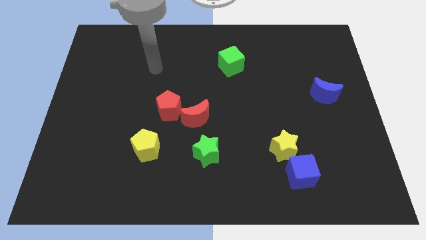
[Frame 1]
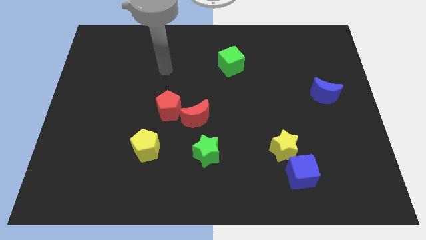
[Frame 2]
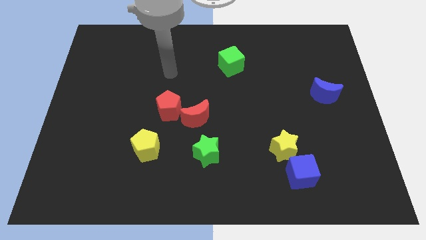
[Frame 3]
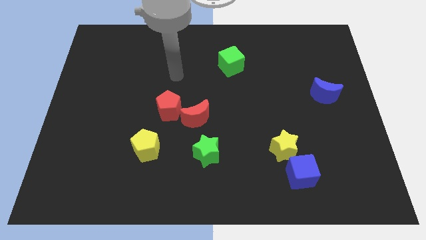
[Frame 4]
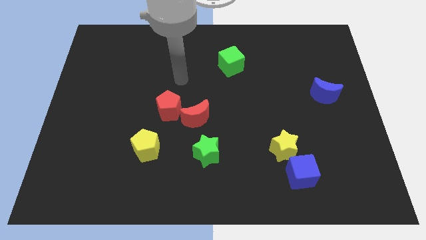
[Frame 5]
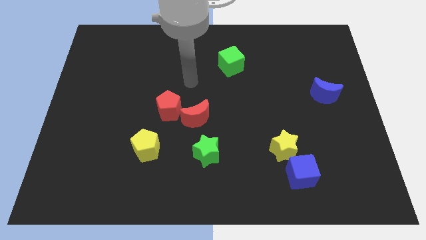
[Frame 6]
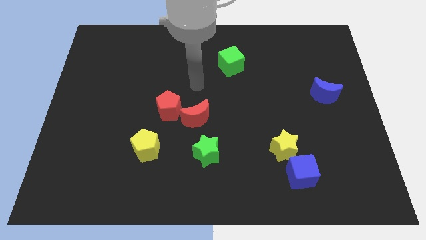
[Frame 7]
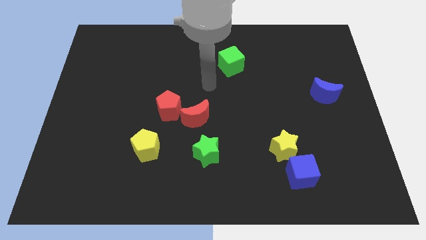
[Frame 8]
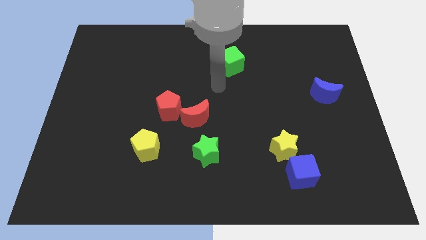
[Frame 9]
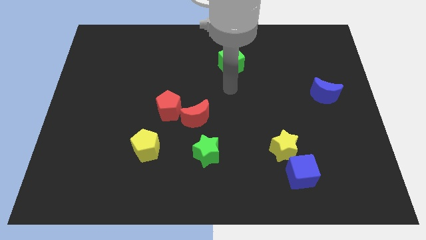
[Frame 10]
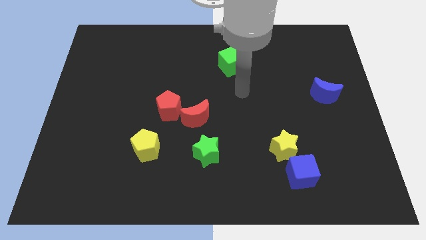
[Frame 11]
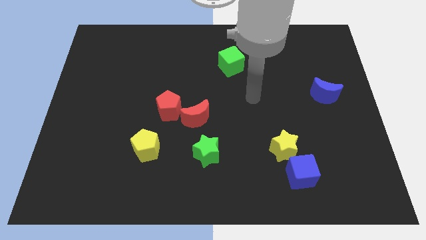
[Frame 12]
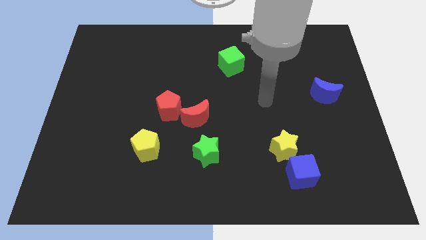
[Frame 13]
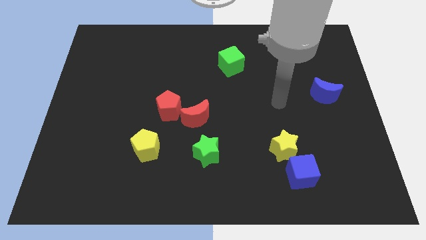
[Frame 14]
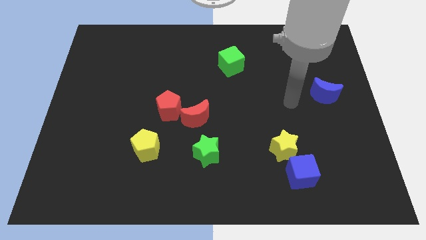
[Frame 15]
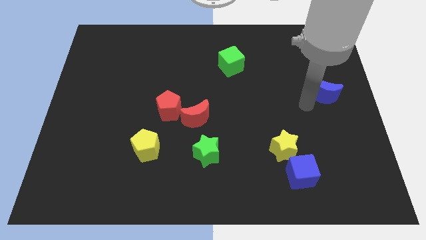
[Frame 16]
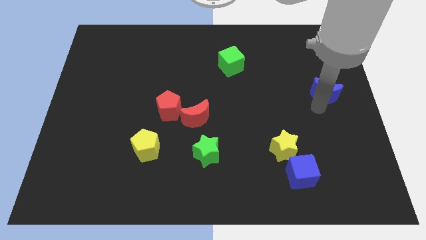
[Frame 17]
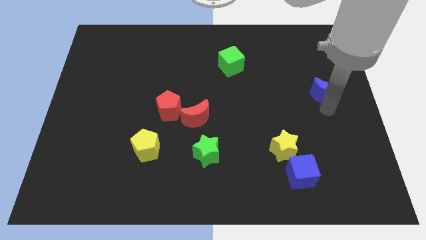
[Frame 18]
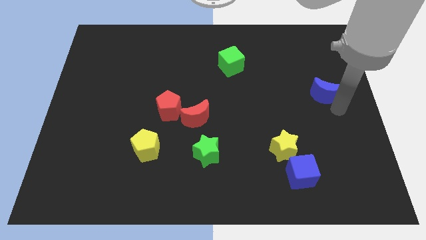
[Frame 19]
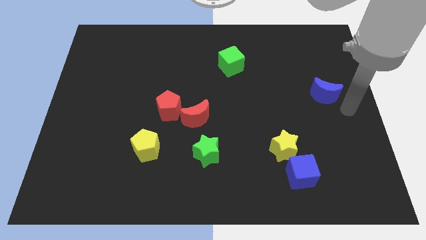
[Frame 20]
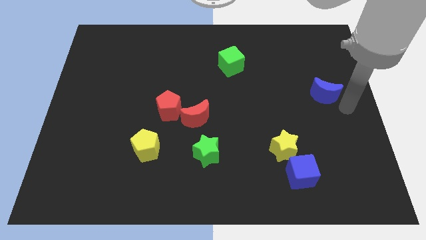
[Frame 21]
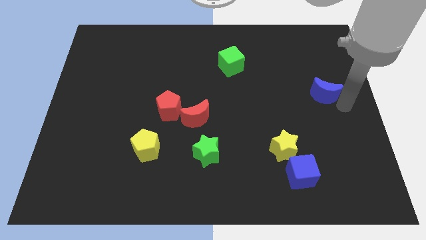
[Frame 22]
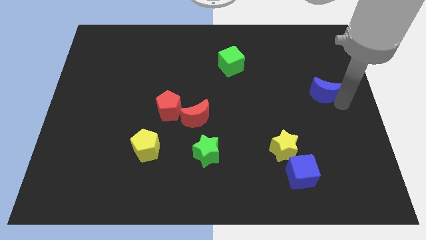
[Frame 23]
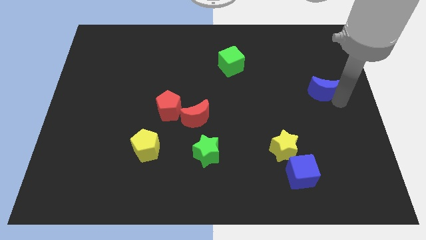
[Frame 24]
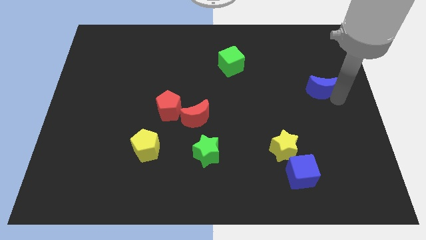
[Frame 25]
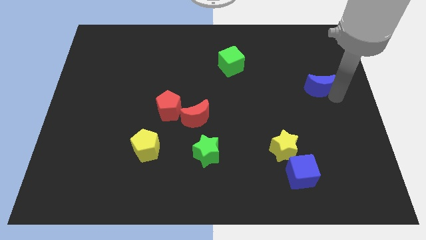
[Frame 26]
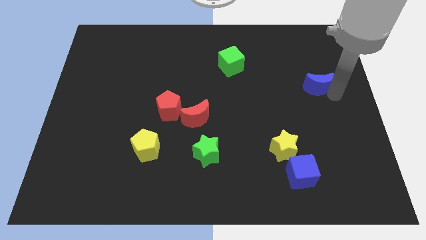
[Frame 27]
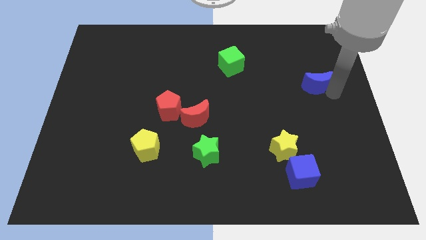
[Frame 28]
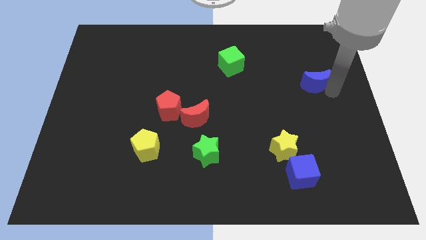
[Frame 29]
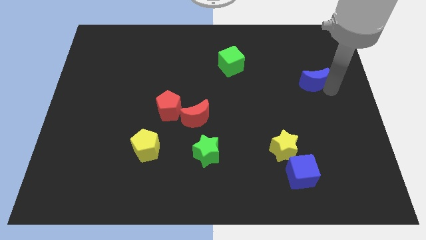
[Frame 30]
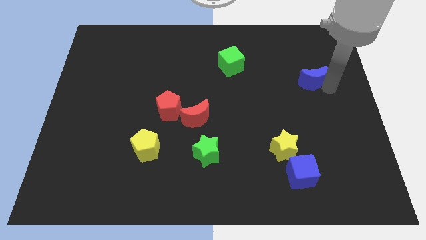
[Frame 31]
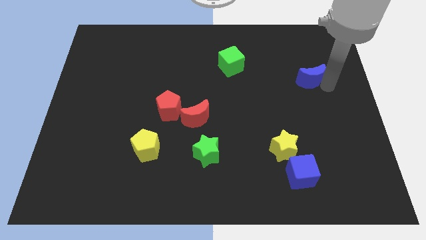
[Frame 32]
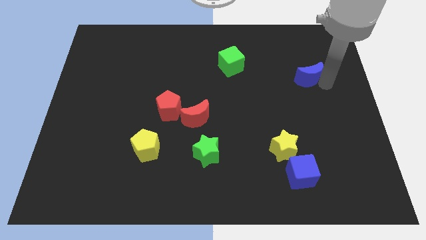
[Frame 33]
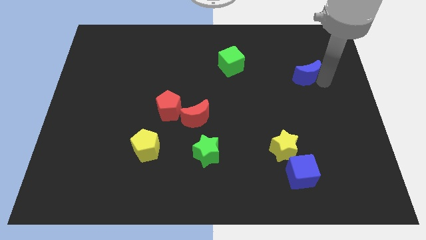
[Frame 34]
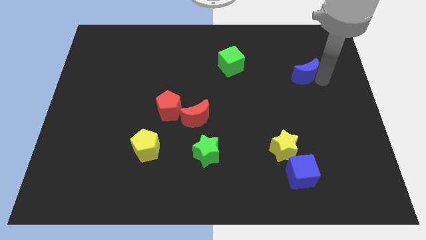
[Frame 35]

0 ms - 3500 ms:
move the blue moon upwards and then to the left slightly

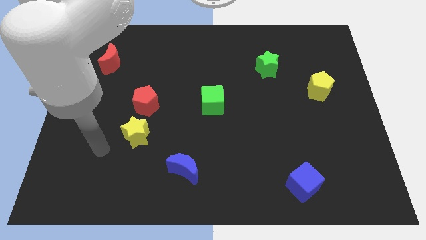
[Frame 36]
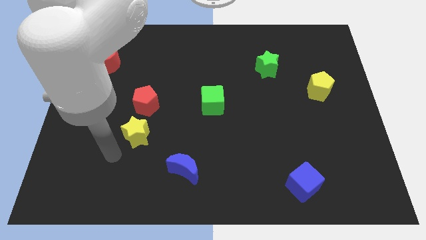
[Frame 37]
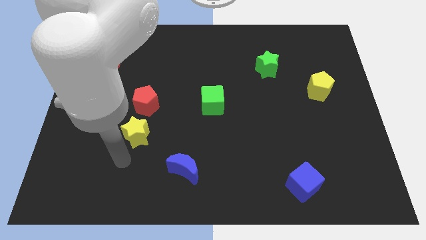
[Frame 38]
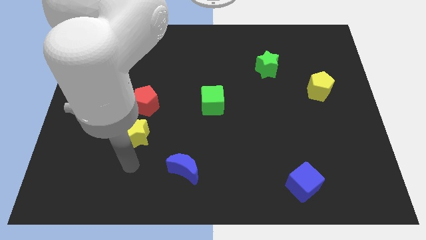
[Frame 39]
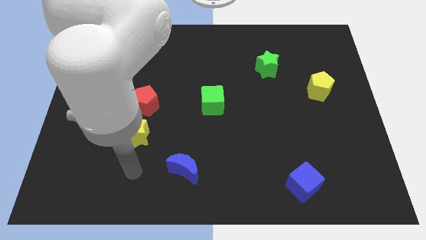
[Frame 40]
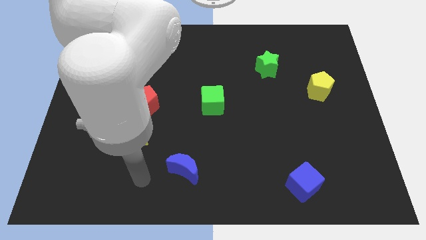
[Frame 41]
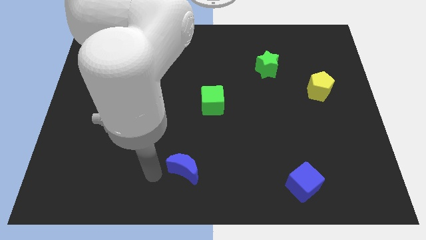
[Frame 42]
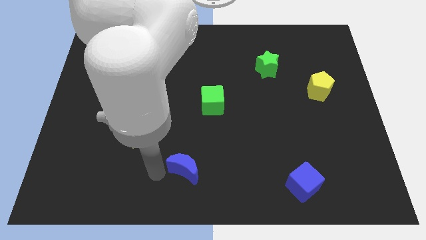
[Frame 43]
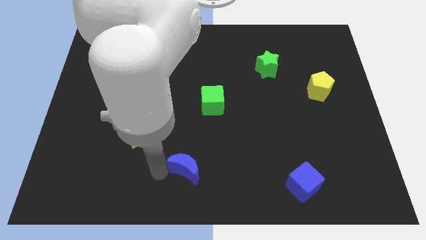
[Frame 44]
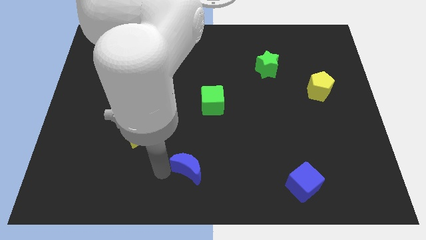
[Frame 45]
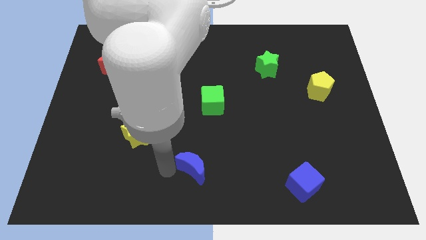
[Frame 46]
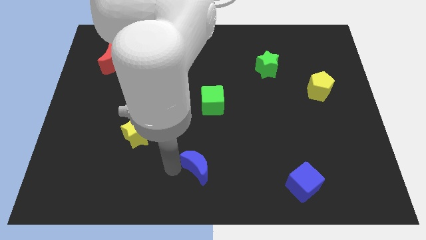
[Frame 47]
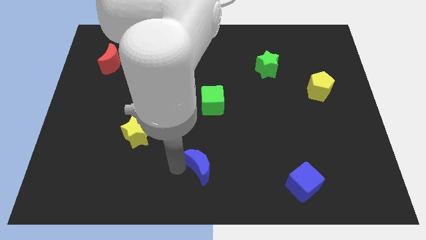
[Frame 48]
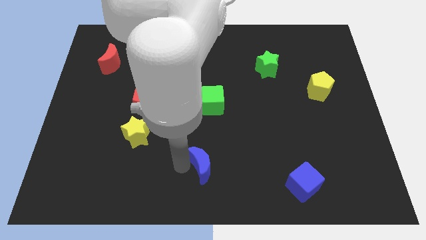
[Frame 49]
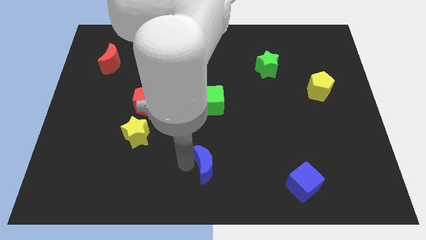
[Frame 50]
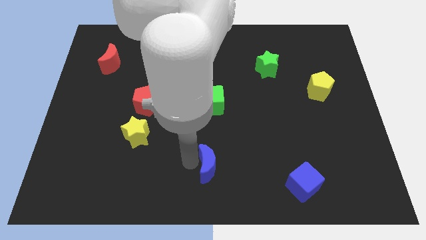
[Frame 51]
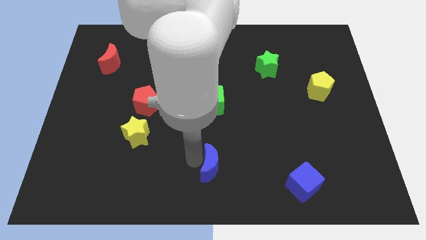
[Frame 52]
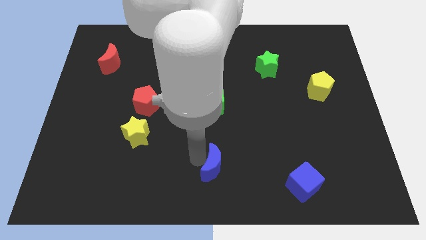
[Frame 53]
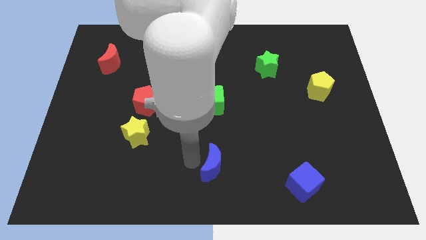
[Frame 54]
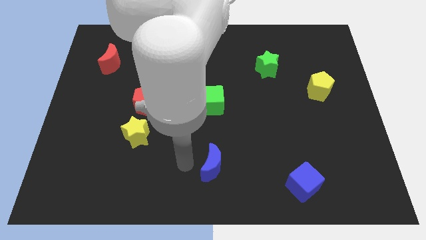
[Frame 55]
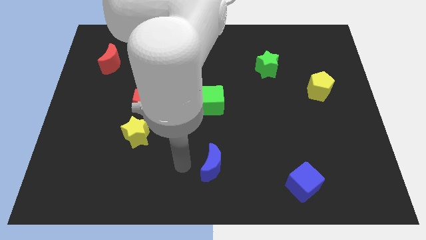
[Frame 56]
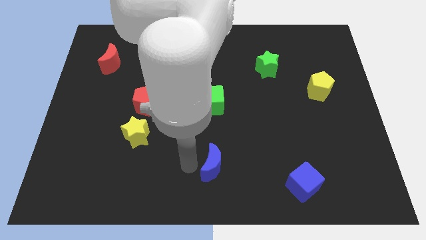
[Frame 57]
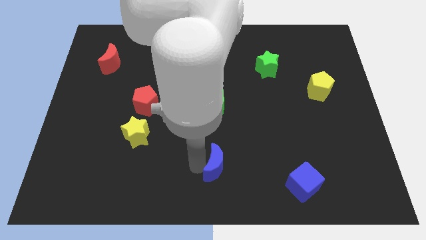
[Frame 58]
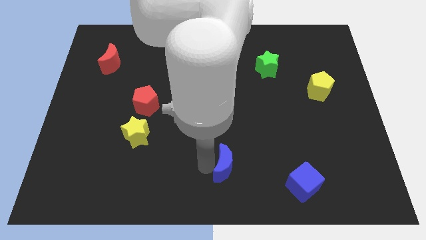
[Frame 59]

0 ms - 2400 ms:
slightly push the blue moon to the right

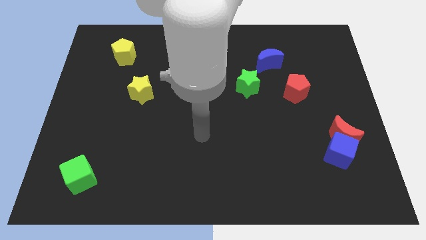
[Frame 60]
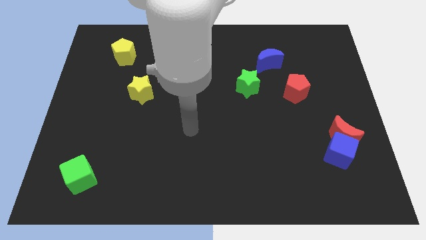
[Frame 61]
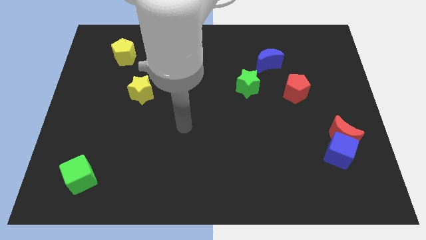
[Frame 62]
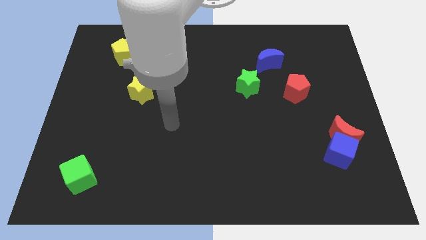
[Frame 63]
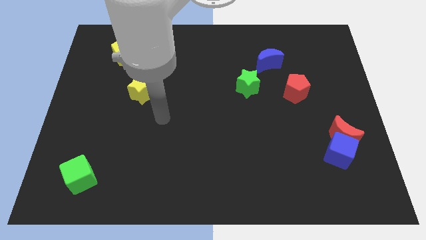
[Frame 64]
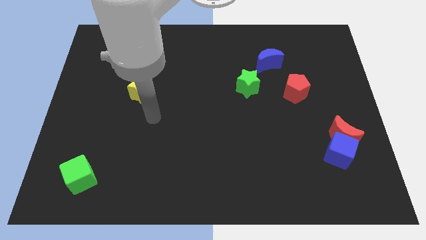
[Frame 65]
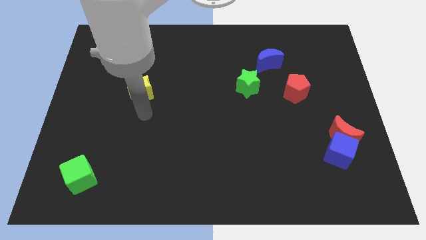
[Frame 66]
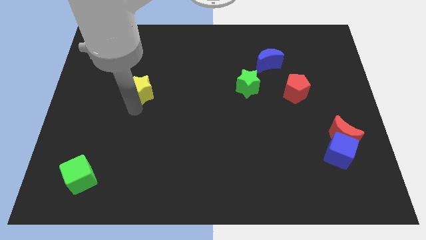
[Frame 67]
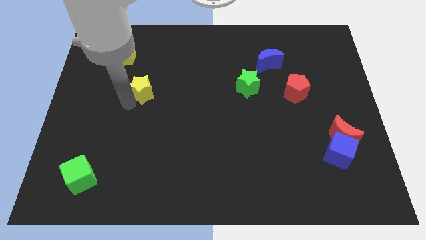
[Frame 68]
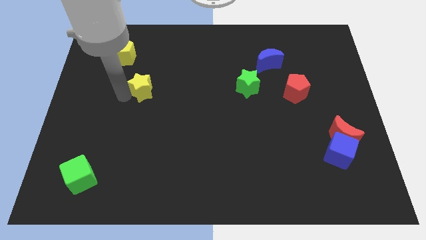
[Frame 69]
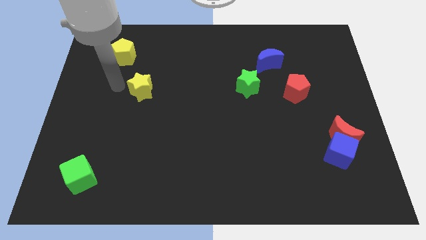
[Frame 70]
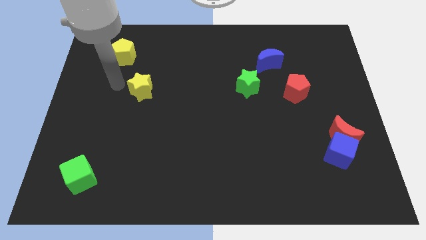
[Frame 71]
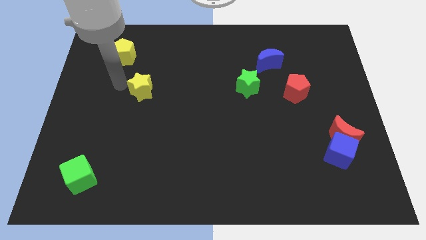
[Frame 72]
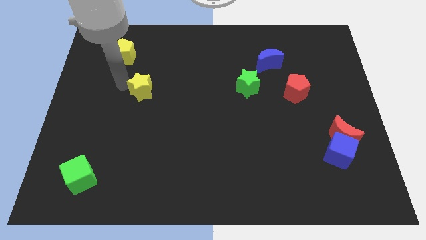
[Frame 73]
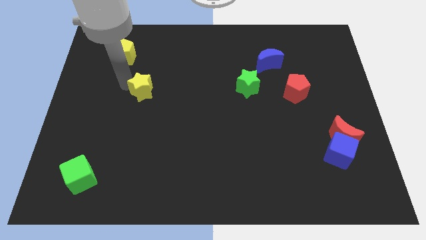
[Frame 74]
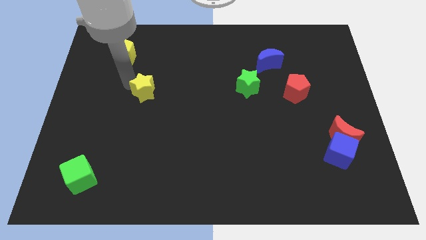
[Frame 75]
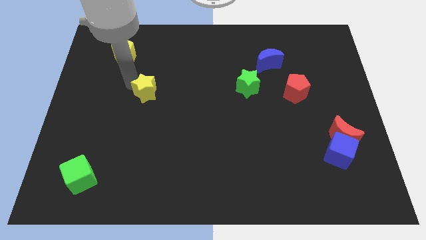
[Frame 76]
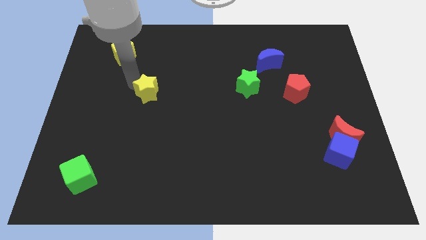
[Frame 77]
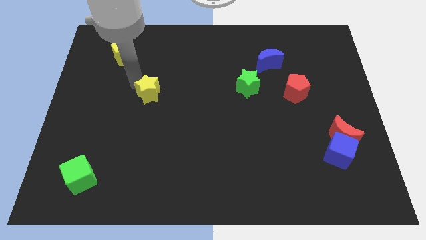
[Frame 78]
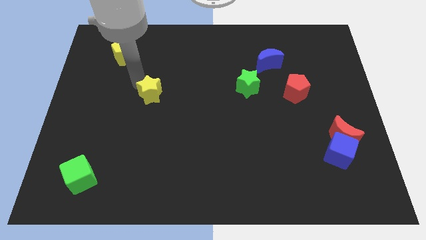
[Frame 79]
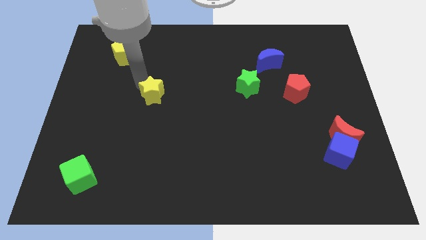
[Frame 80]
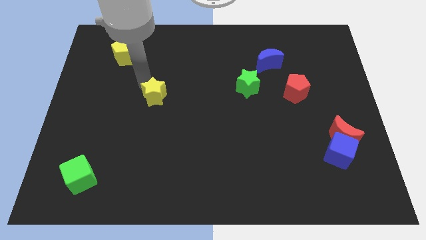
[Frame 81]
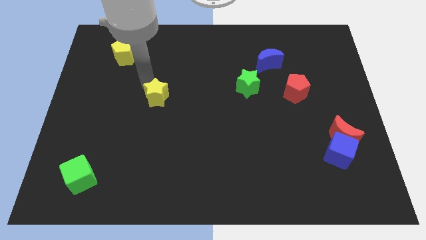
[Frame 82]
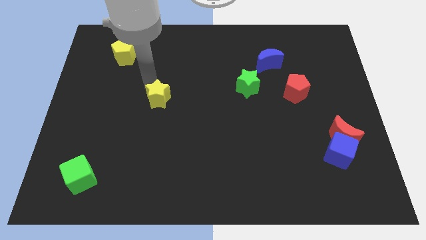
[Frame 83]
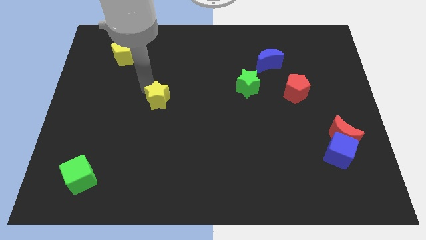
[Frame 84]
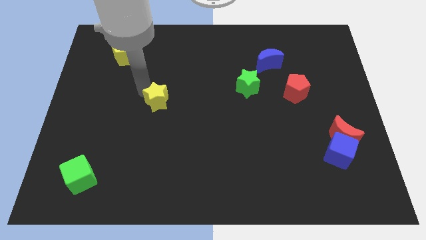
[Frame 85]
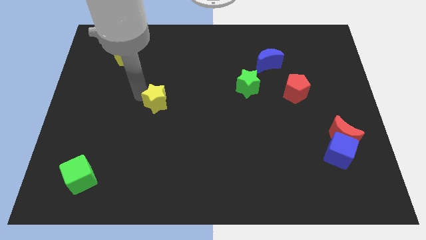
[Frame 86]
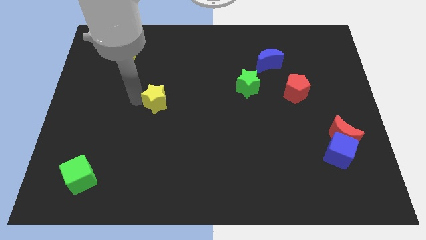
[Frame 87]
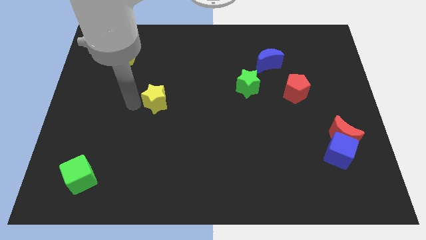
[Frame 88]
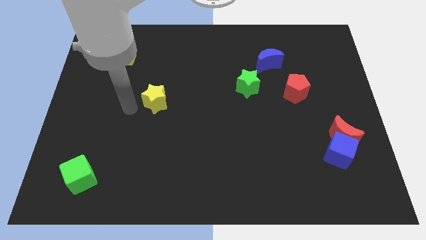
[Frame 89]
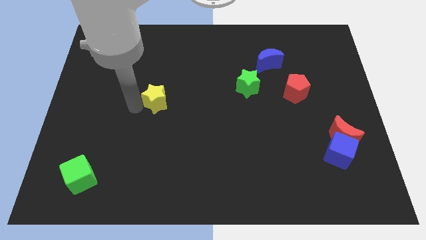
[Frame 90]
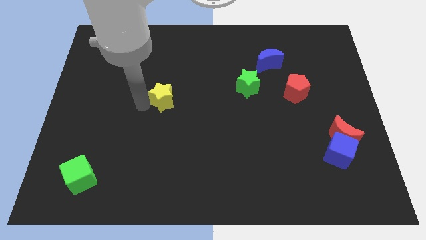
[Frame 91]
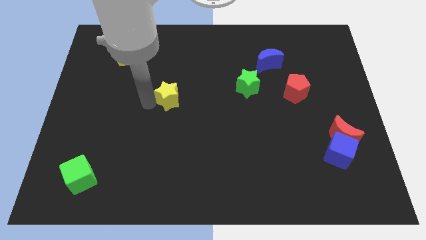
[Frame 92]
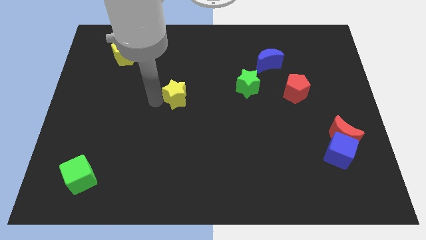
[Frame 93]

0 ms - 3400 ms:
slightly slide the yellow star right
